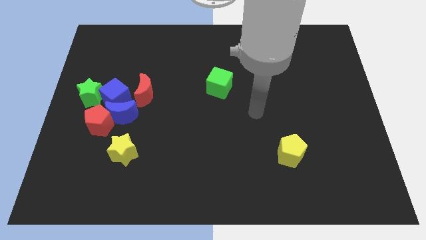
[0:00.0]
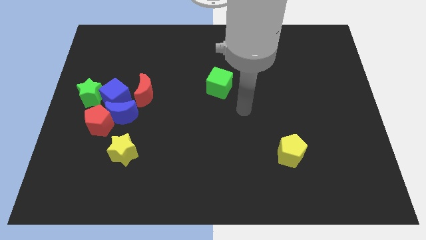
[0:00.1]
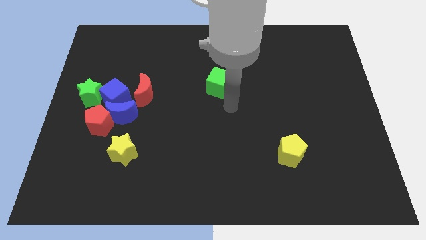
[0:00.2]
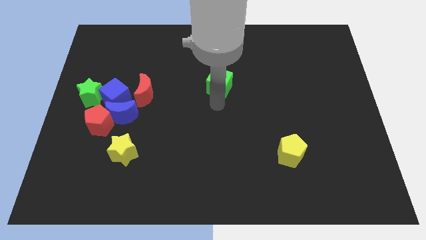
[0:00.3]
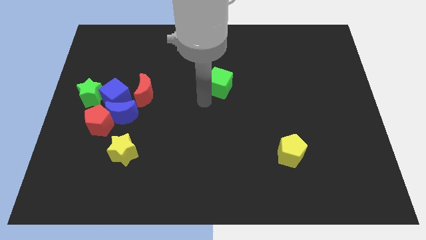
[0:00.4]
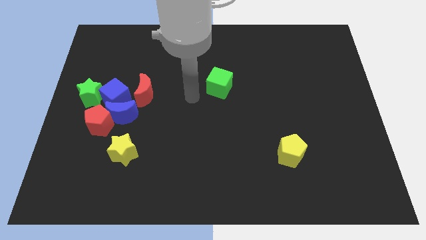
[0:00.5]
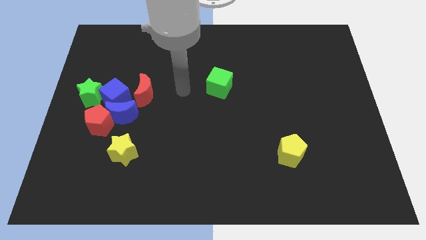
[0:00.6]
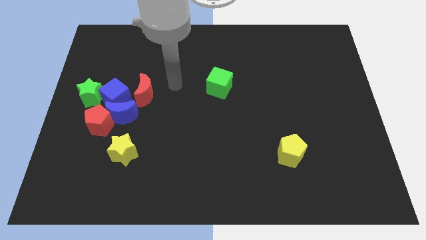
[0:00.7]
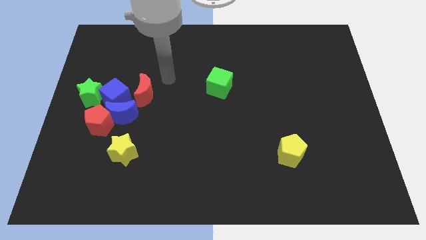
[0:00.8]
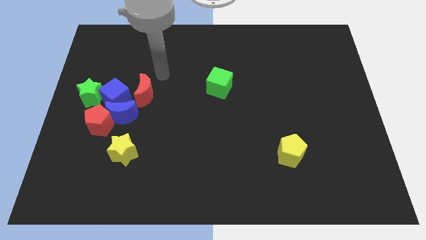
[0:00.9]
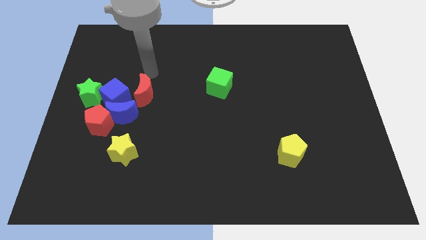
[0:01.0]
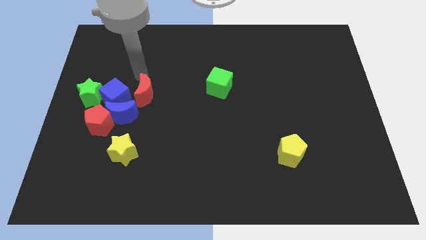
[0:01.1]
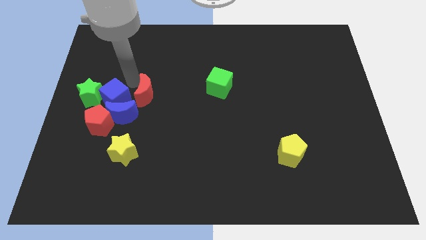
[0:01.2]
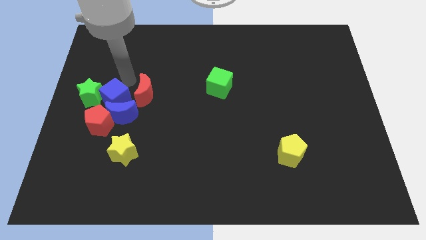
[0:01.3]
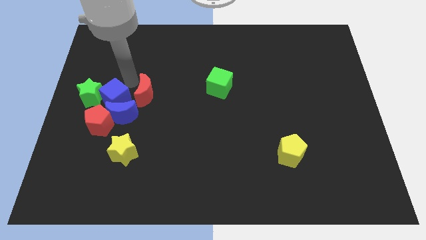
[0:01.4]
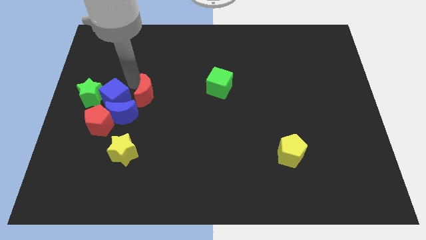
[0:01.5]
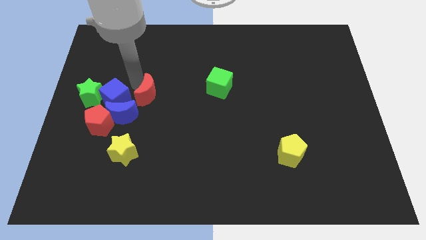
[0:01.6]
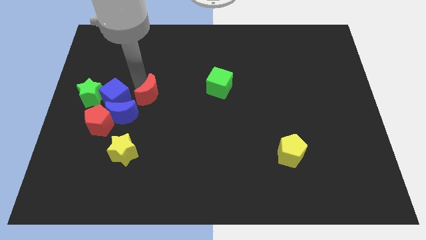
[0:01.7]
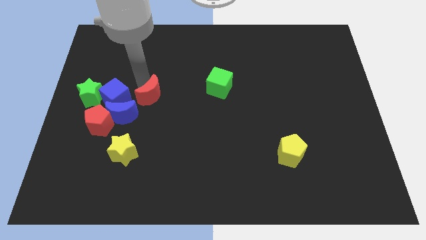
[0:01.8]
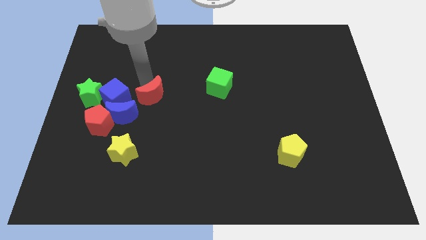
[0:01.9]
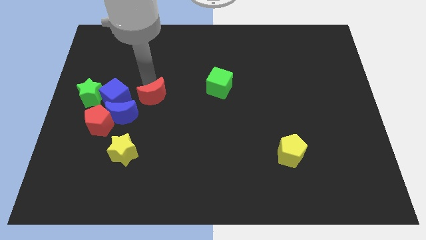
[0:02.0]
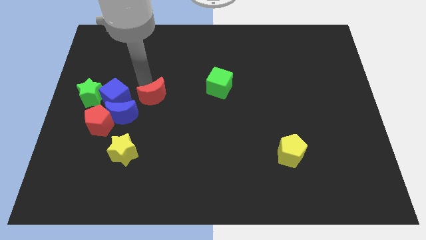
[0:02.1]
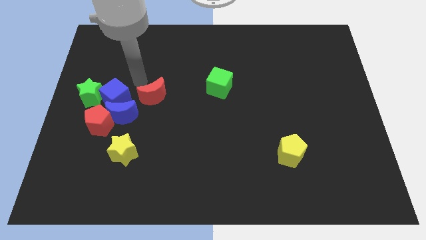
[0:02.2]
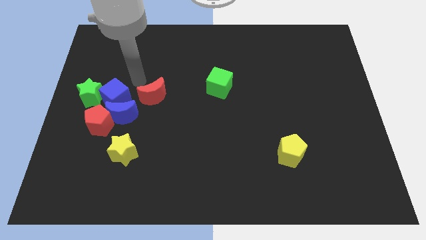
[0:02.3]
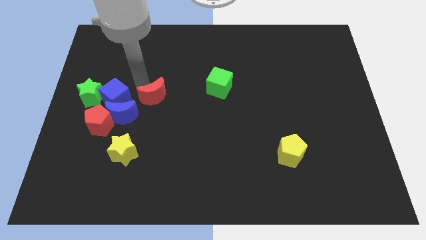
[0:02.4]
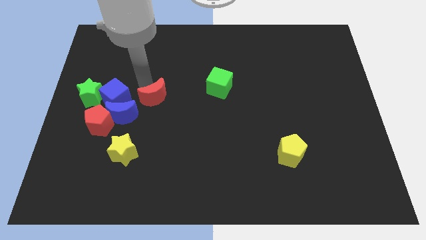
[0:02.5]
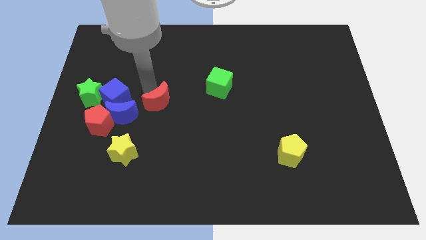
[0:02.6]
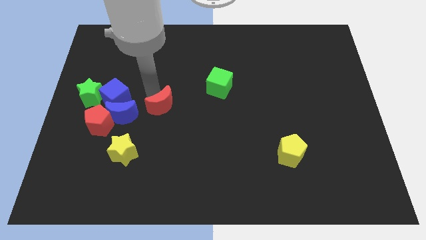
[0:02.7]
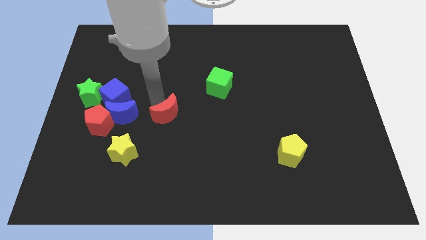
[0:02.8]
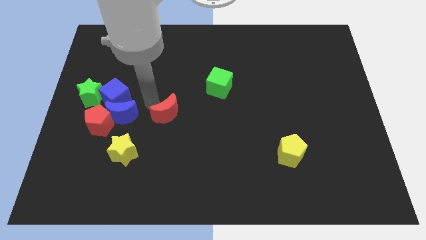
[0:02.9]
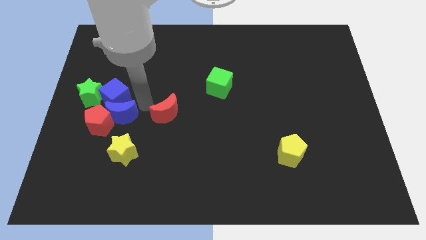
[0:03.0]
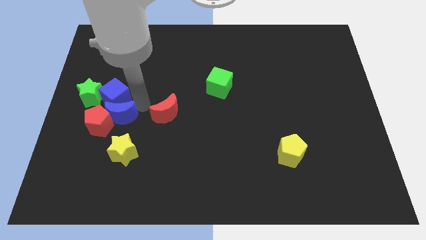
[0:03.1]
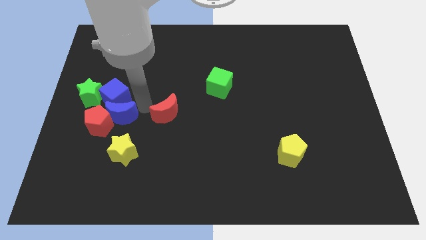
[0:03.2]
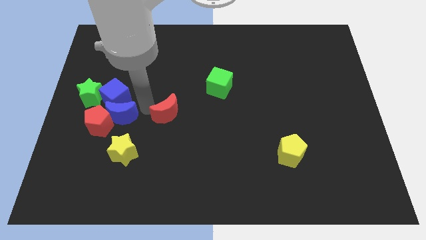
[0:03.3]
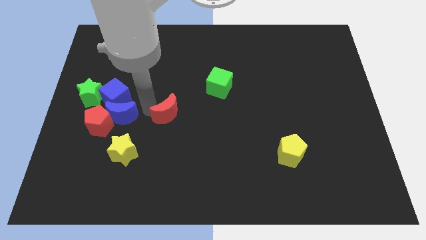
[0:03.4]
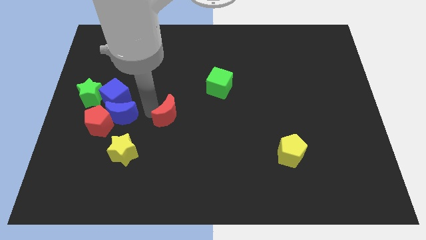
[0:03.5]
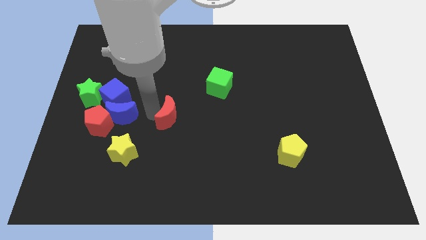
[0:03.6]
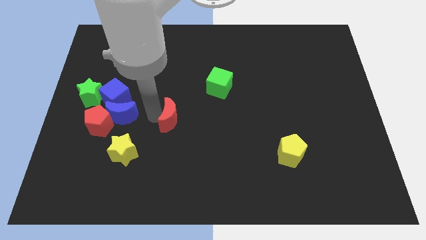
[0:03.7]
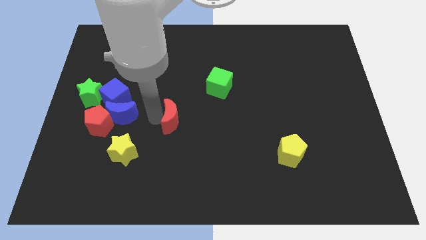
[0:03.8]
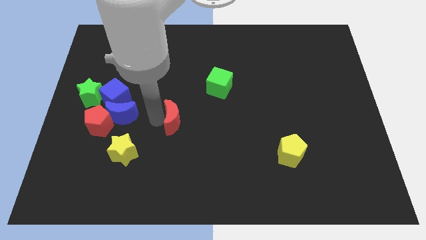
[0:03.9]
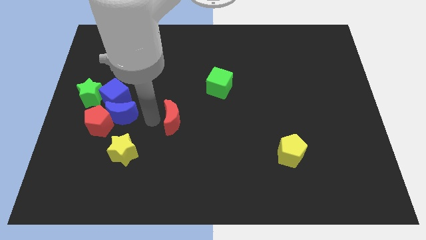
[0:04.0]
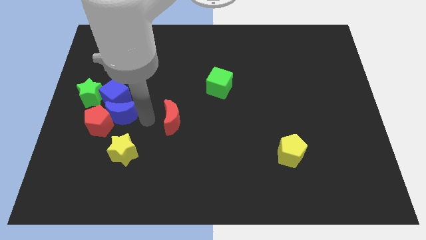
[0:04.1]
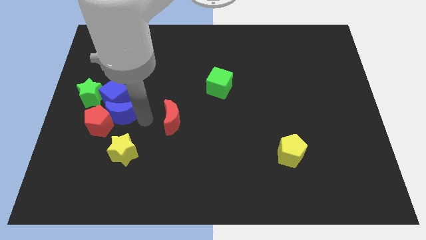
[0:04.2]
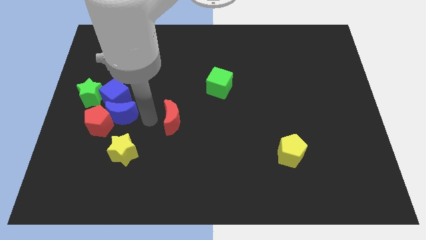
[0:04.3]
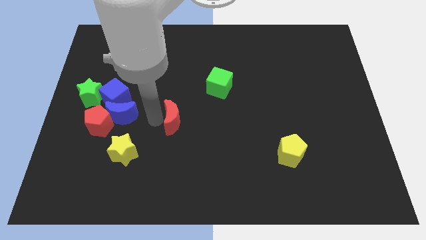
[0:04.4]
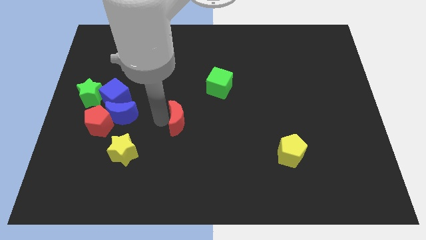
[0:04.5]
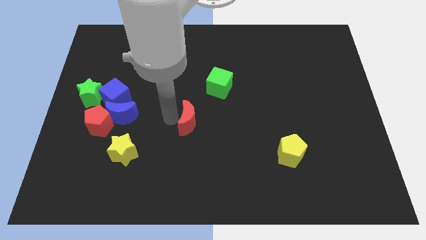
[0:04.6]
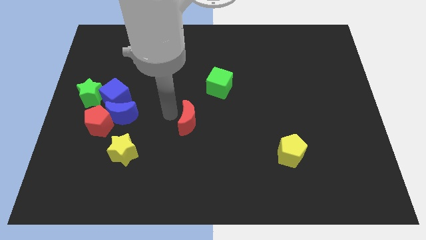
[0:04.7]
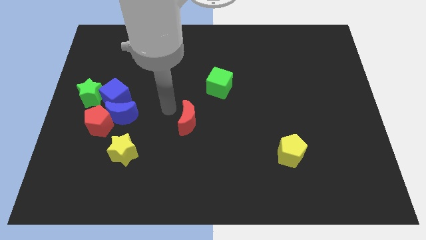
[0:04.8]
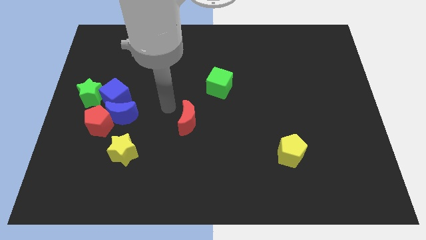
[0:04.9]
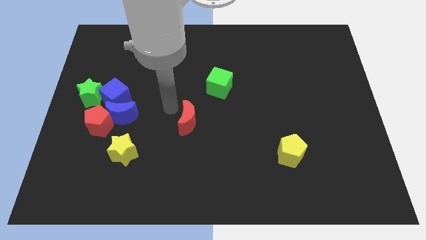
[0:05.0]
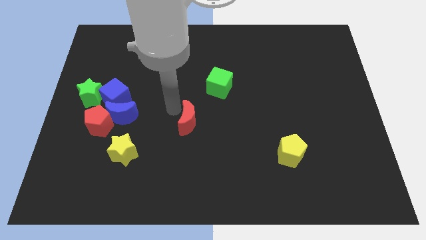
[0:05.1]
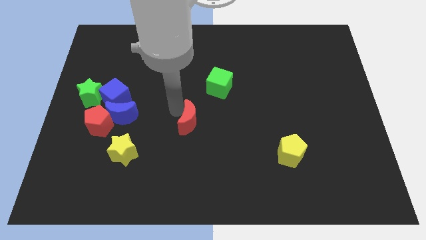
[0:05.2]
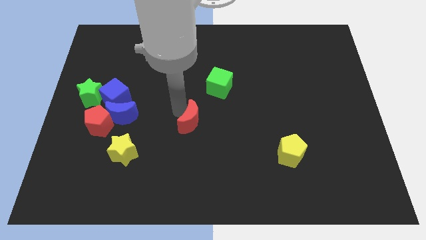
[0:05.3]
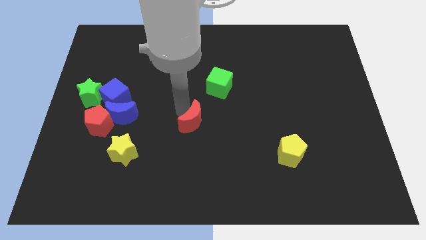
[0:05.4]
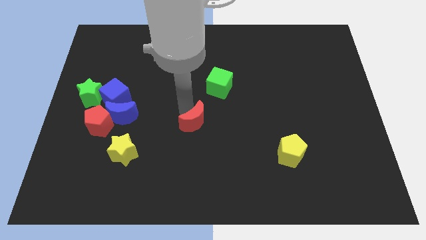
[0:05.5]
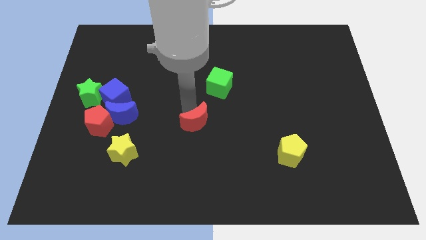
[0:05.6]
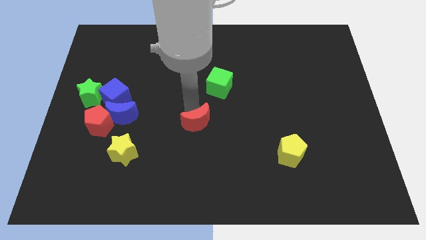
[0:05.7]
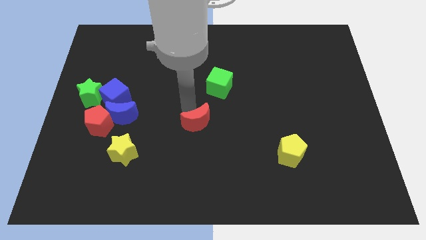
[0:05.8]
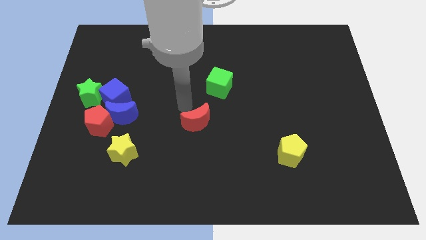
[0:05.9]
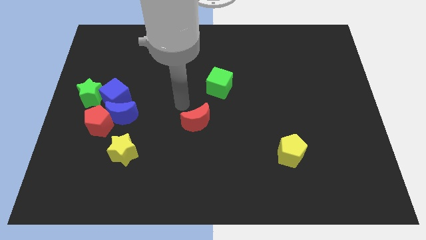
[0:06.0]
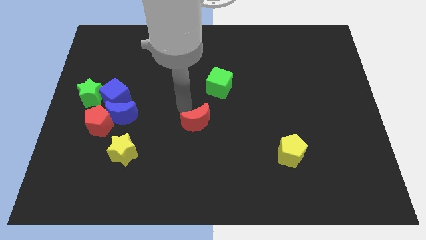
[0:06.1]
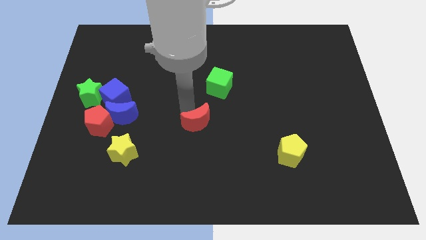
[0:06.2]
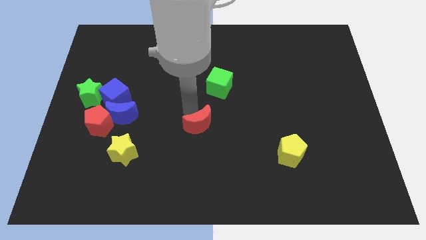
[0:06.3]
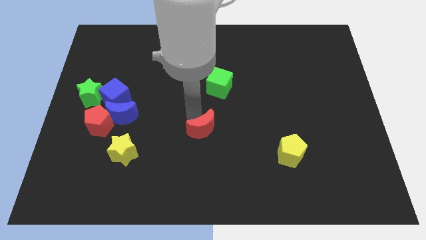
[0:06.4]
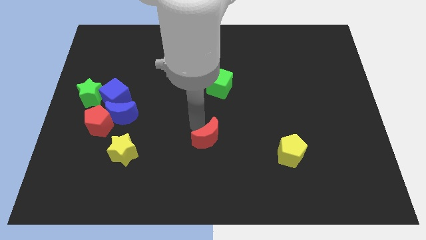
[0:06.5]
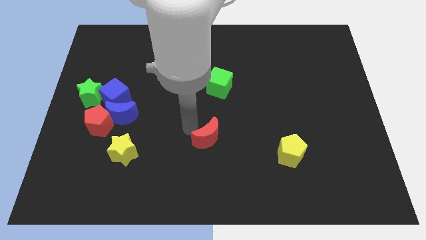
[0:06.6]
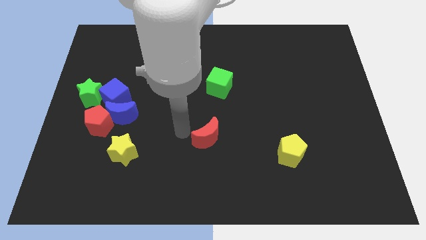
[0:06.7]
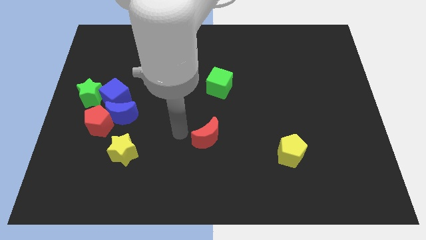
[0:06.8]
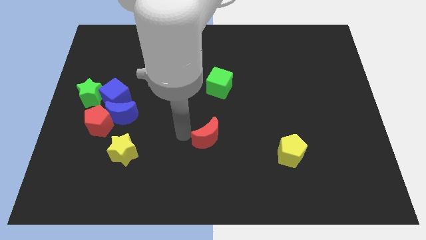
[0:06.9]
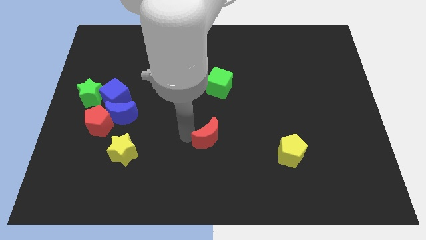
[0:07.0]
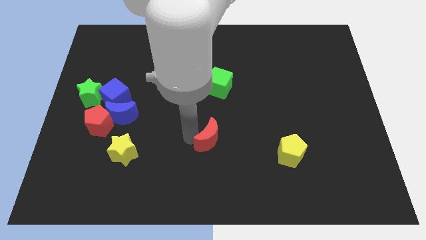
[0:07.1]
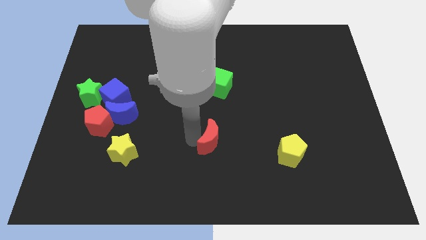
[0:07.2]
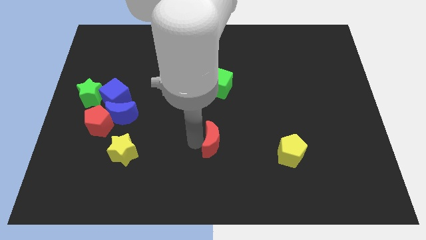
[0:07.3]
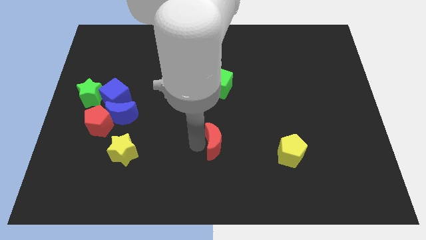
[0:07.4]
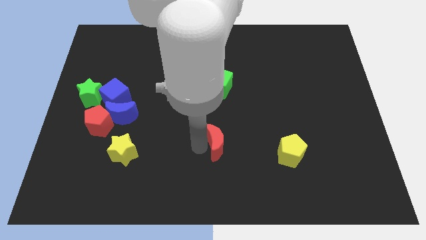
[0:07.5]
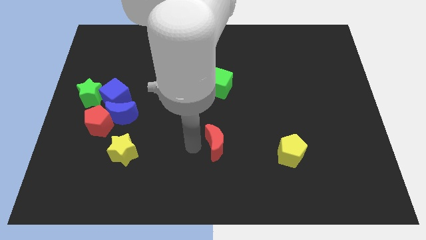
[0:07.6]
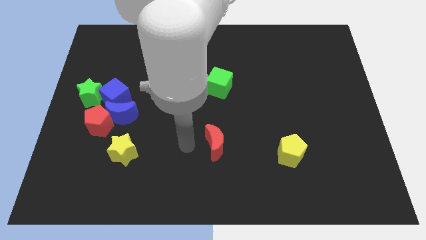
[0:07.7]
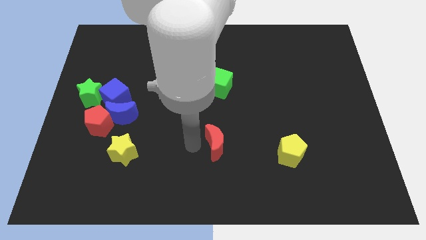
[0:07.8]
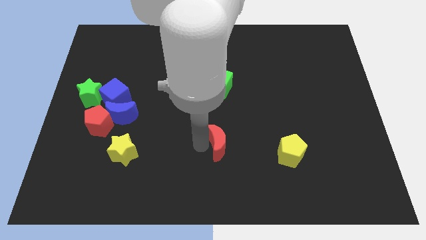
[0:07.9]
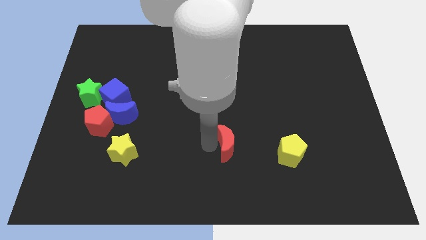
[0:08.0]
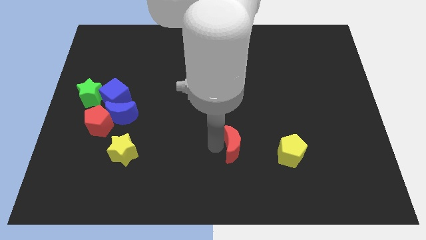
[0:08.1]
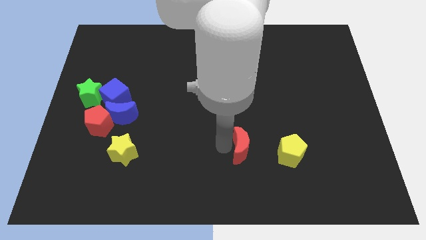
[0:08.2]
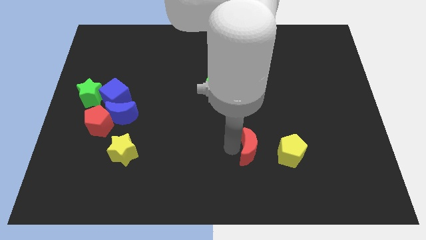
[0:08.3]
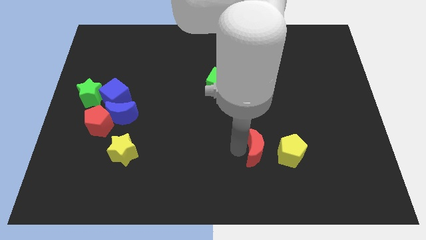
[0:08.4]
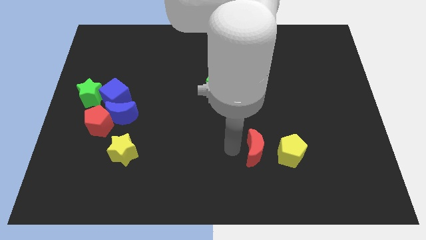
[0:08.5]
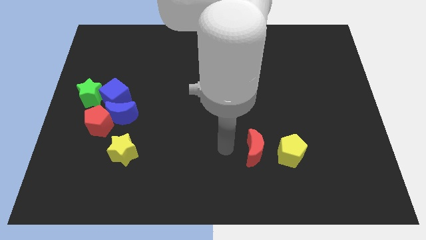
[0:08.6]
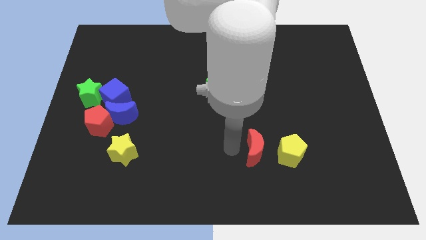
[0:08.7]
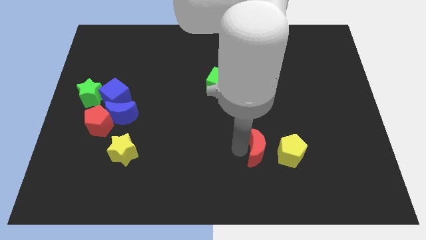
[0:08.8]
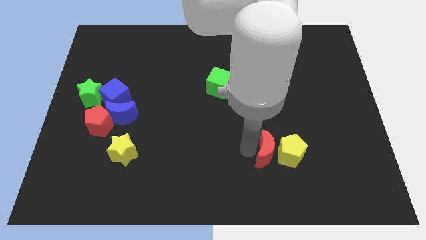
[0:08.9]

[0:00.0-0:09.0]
put the red moon to the yellow pentagon
